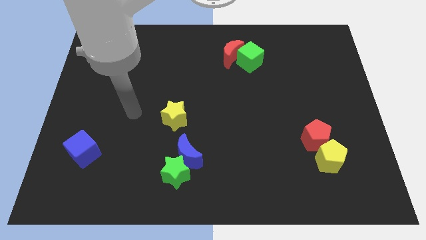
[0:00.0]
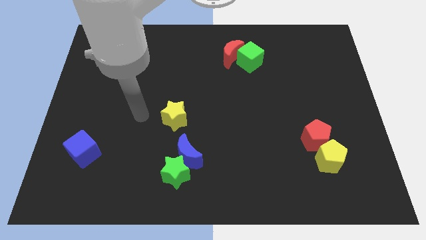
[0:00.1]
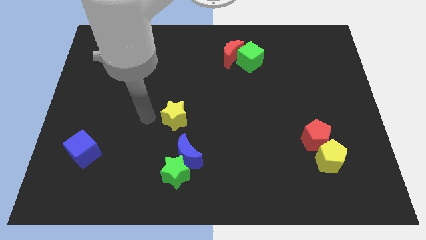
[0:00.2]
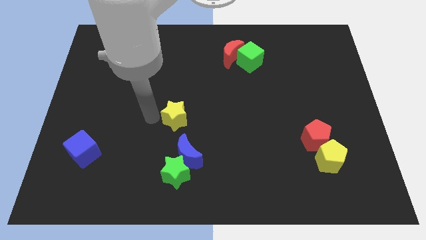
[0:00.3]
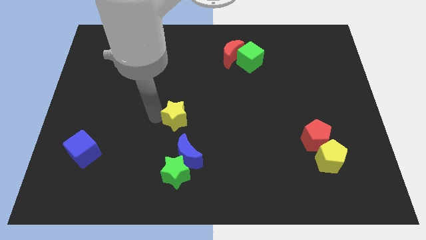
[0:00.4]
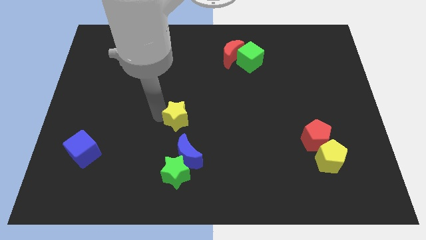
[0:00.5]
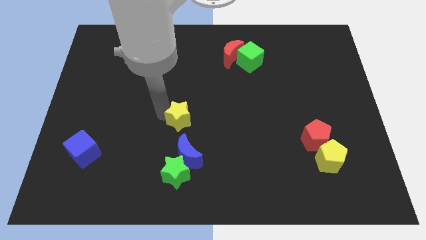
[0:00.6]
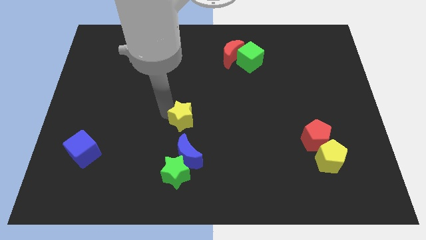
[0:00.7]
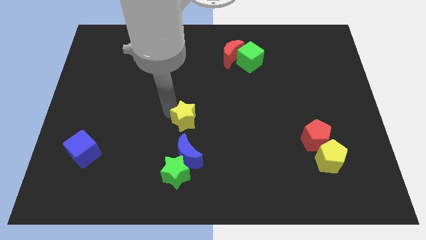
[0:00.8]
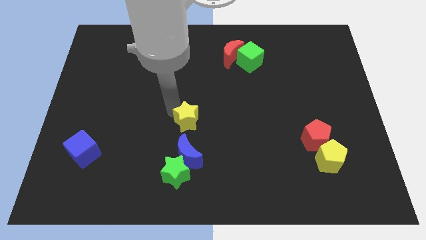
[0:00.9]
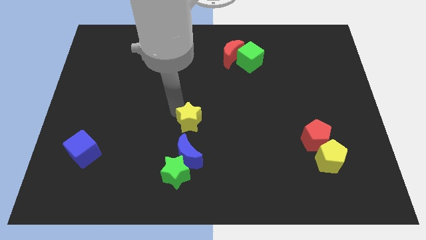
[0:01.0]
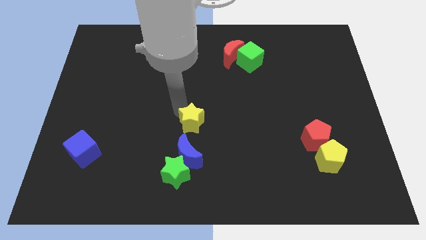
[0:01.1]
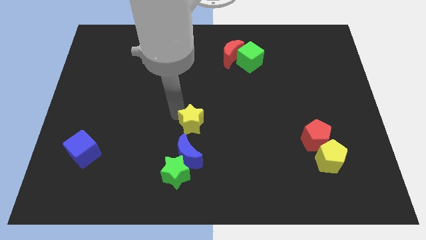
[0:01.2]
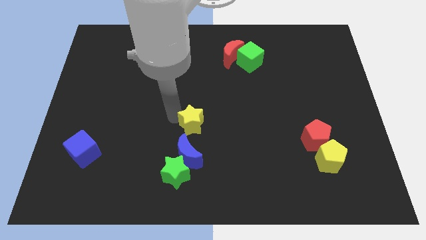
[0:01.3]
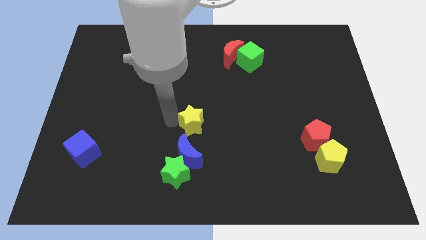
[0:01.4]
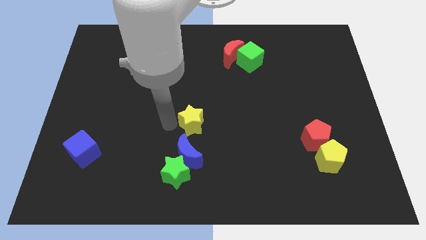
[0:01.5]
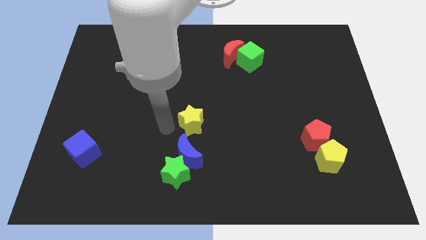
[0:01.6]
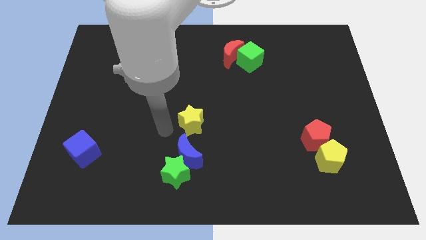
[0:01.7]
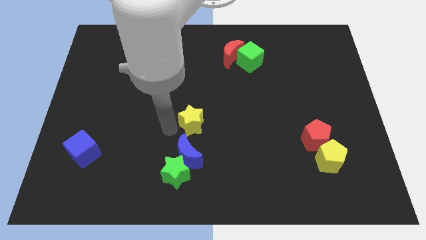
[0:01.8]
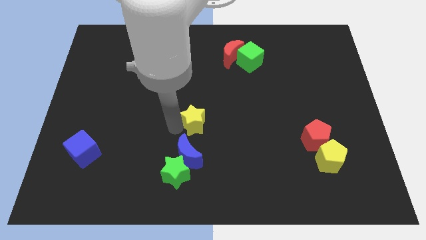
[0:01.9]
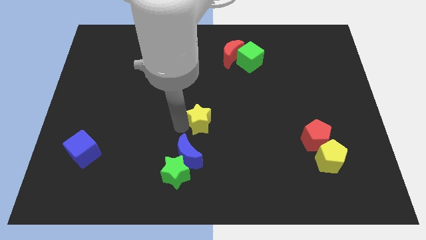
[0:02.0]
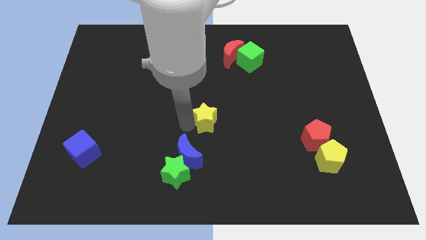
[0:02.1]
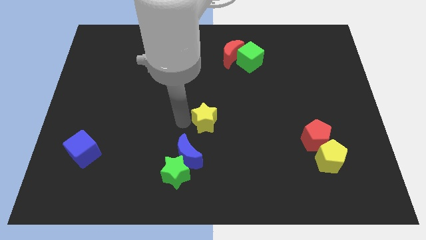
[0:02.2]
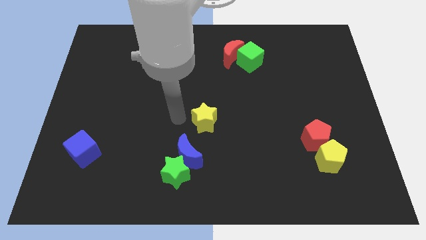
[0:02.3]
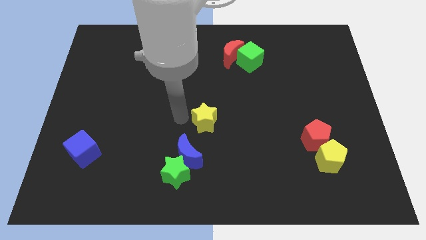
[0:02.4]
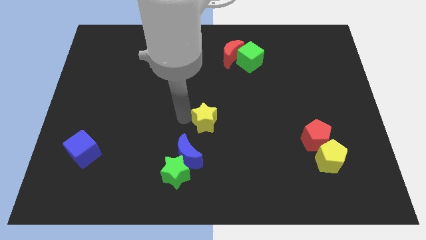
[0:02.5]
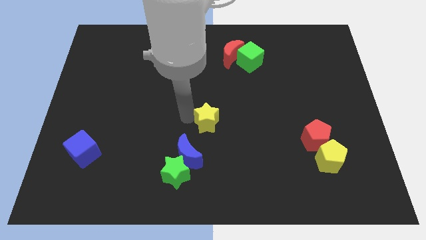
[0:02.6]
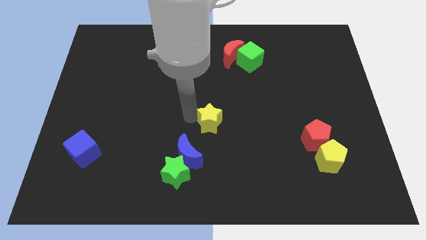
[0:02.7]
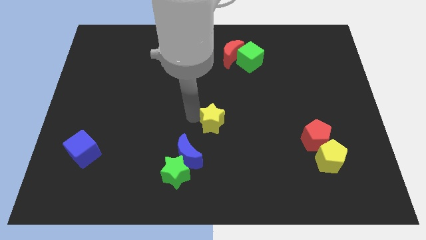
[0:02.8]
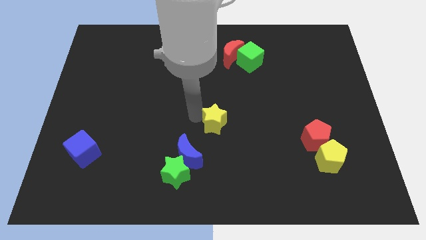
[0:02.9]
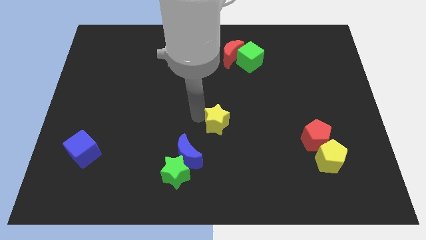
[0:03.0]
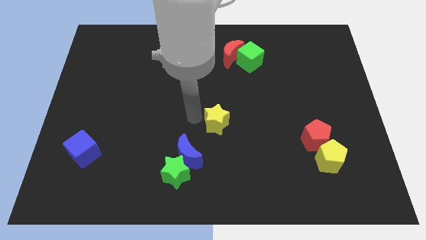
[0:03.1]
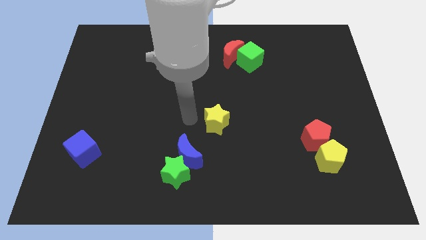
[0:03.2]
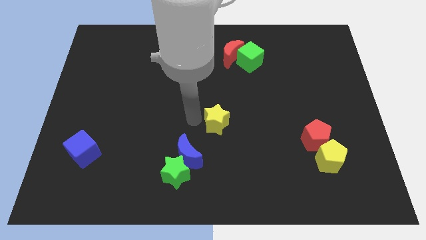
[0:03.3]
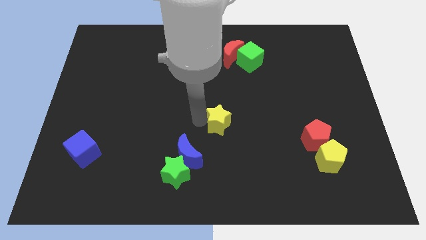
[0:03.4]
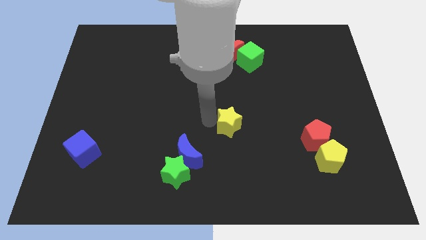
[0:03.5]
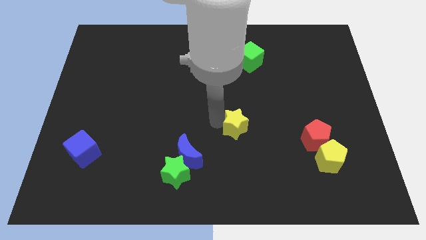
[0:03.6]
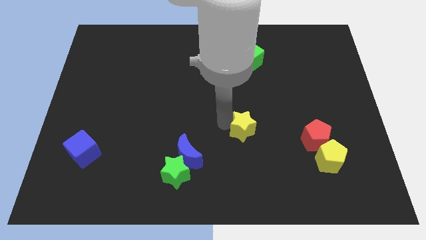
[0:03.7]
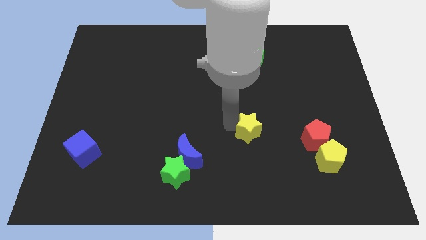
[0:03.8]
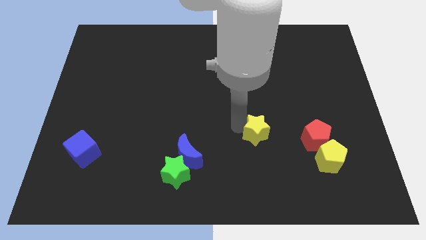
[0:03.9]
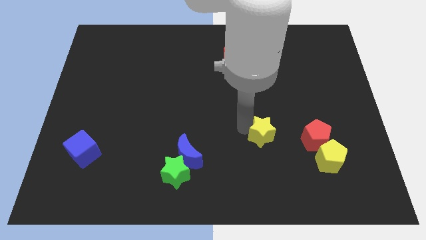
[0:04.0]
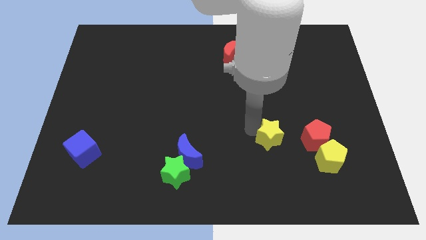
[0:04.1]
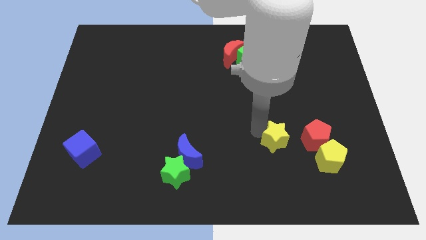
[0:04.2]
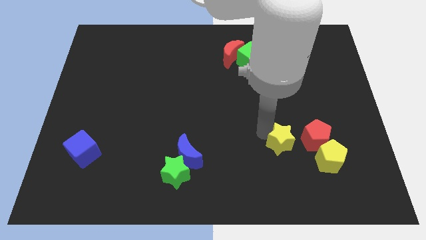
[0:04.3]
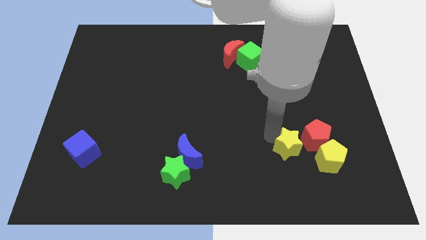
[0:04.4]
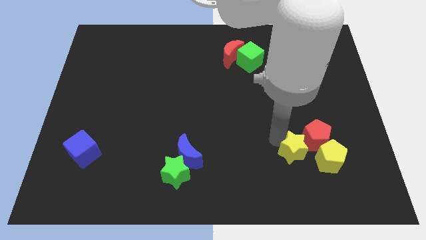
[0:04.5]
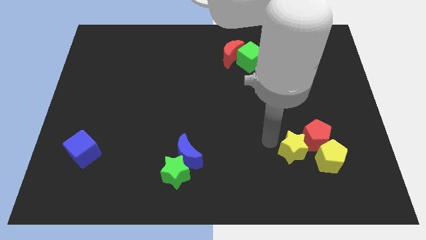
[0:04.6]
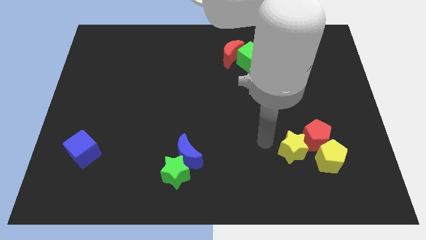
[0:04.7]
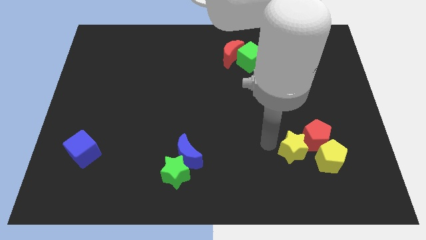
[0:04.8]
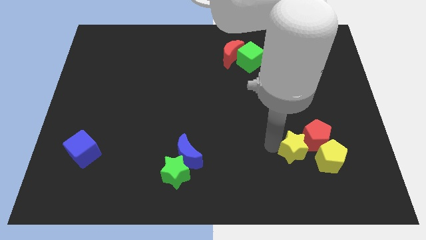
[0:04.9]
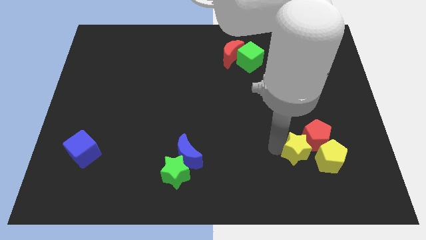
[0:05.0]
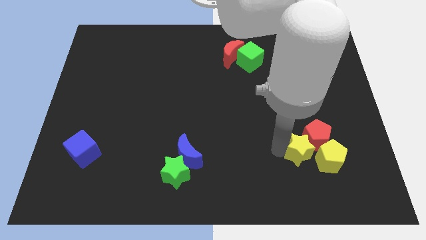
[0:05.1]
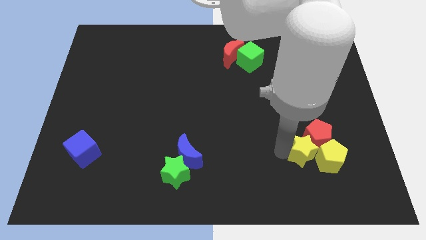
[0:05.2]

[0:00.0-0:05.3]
push the yellow star to the yellow pentagon

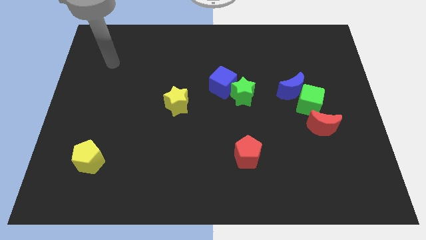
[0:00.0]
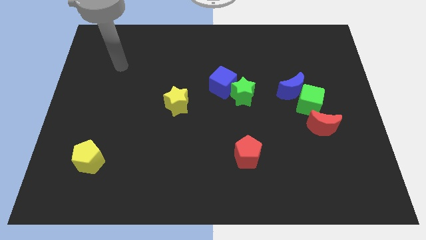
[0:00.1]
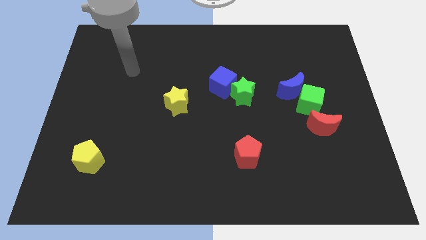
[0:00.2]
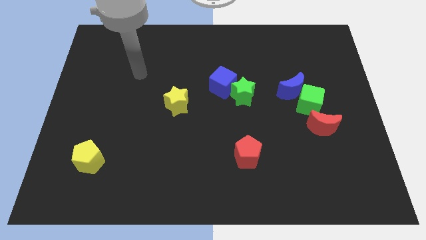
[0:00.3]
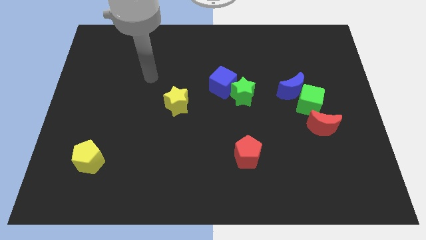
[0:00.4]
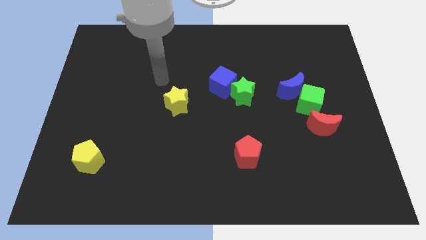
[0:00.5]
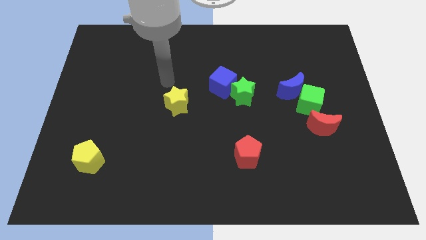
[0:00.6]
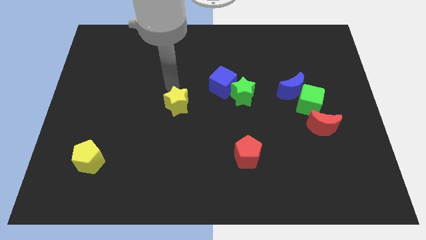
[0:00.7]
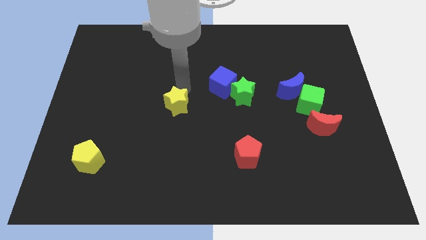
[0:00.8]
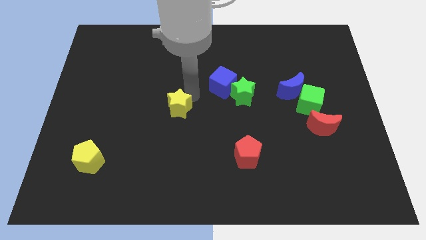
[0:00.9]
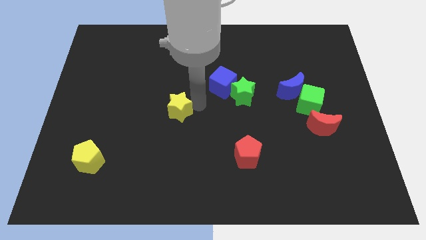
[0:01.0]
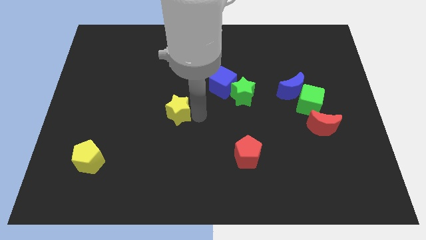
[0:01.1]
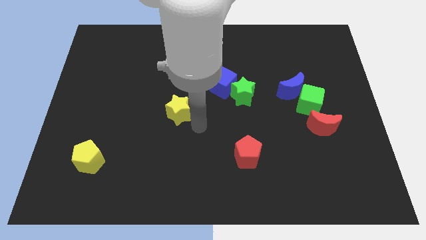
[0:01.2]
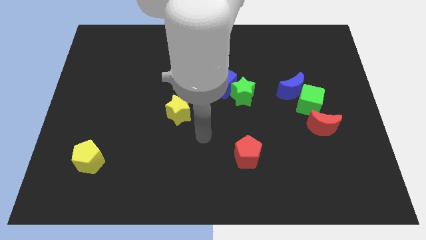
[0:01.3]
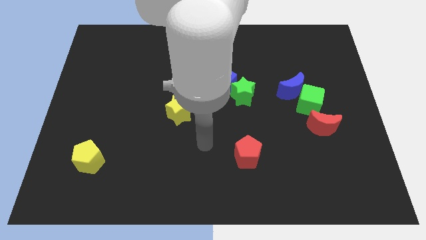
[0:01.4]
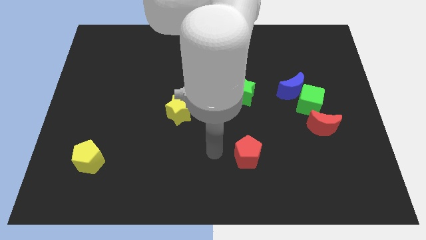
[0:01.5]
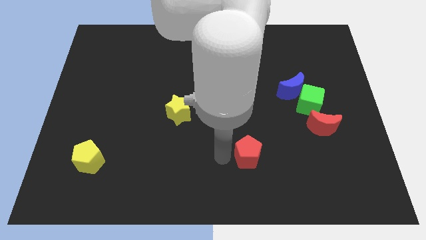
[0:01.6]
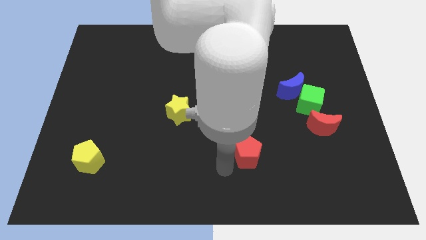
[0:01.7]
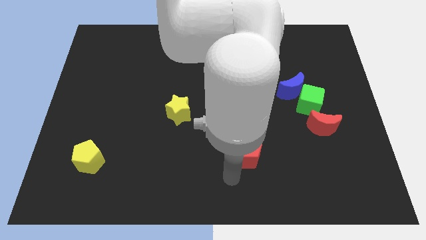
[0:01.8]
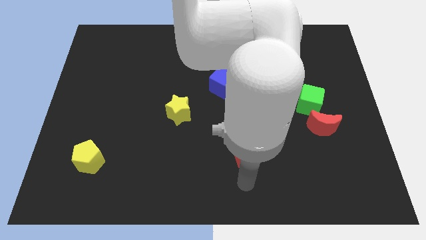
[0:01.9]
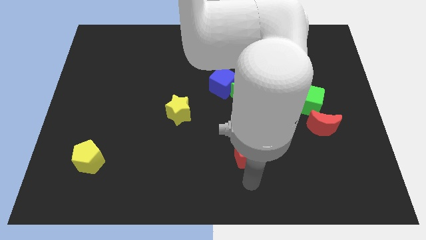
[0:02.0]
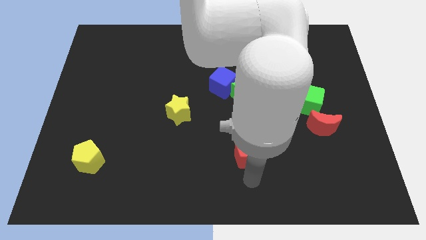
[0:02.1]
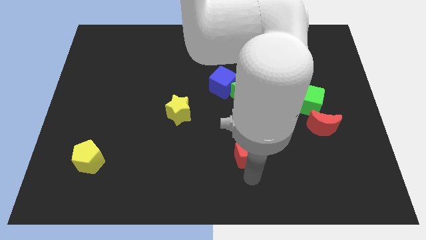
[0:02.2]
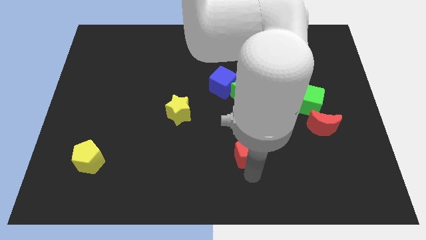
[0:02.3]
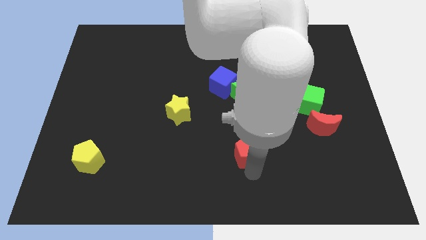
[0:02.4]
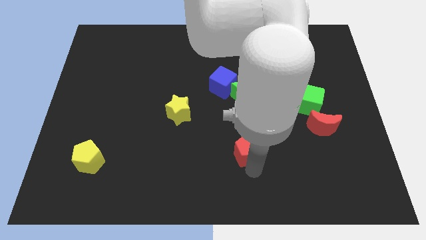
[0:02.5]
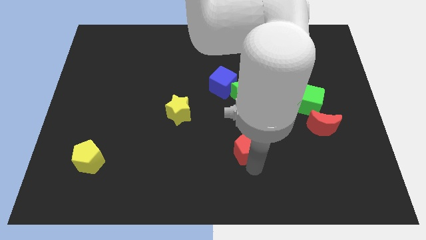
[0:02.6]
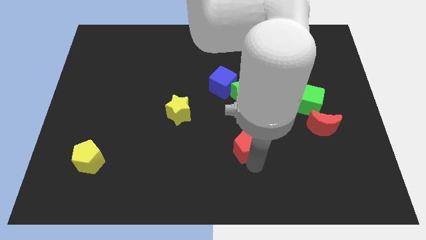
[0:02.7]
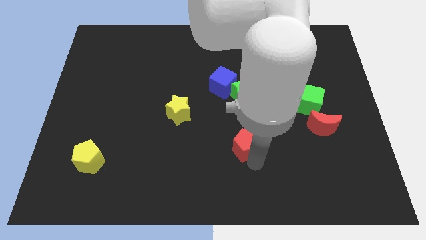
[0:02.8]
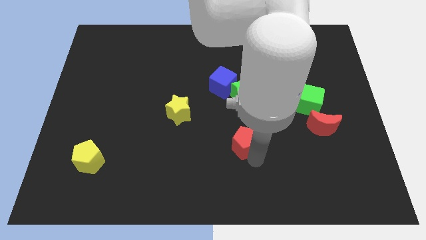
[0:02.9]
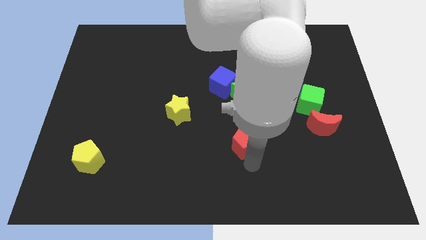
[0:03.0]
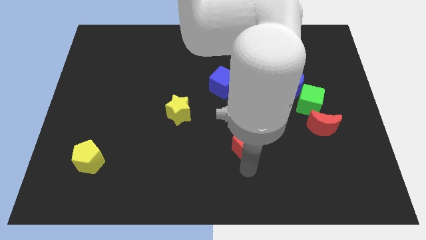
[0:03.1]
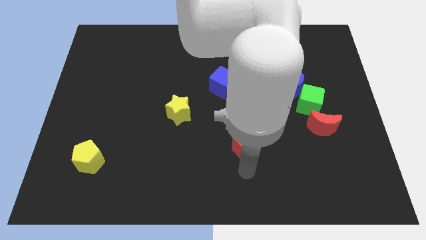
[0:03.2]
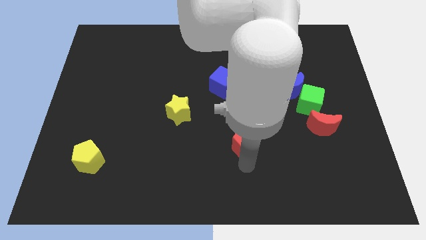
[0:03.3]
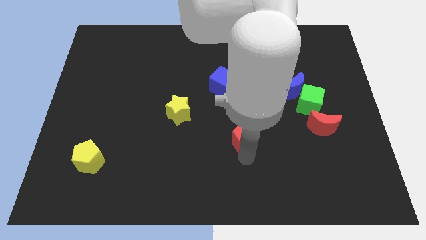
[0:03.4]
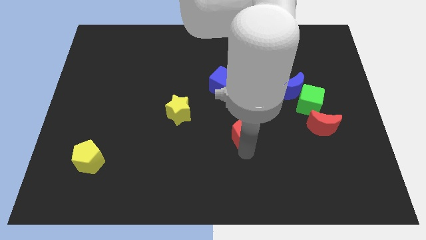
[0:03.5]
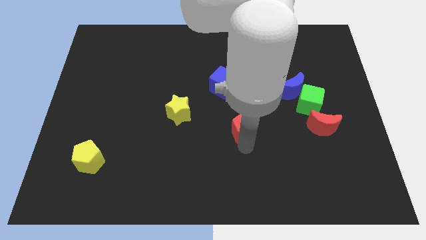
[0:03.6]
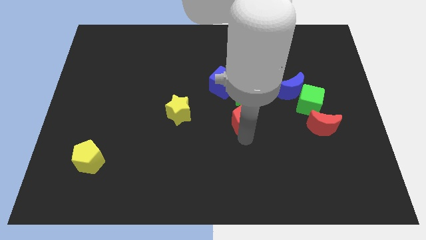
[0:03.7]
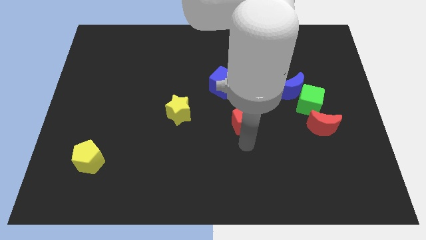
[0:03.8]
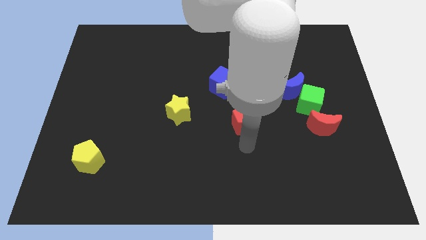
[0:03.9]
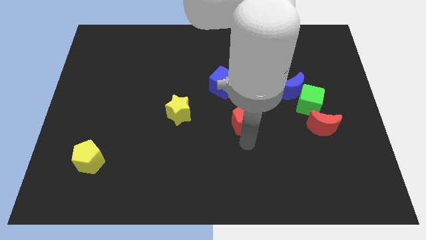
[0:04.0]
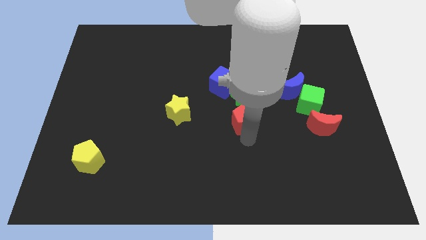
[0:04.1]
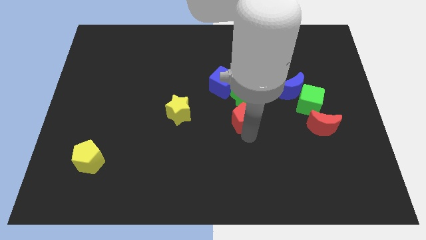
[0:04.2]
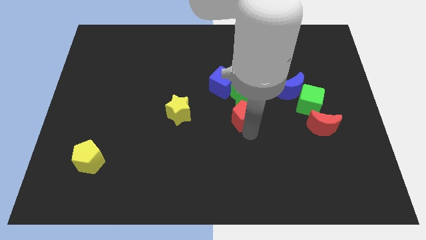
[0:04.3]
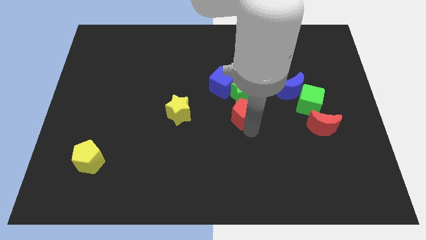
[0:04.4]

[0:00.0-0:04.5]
put the red pentagon close to the green star
